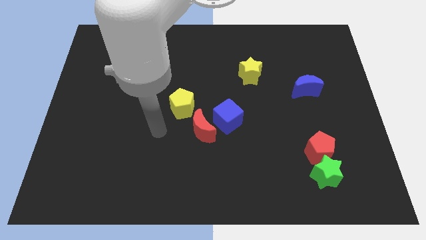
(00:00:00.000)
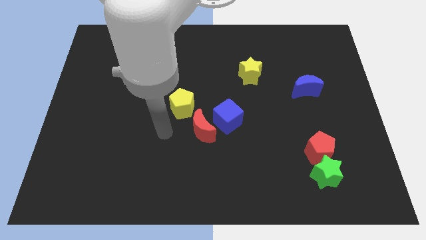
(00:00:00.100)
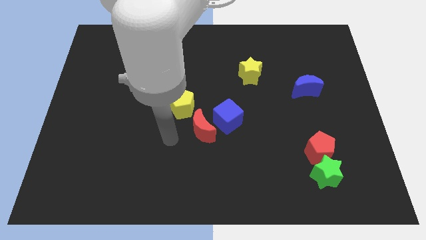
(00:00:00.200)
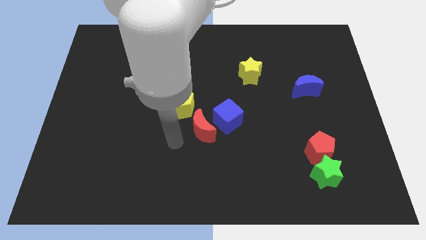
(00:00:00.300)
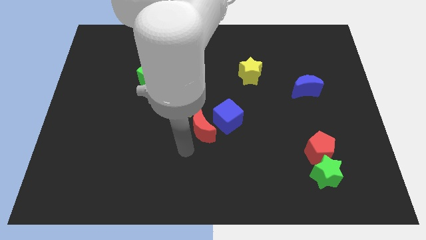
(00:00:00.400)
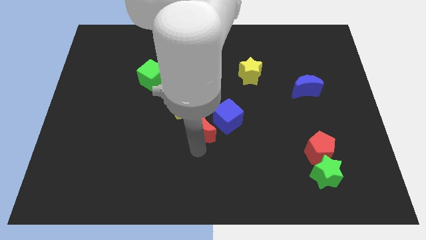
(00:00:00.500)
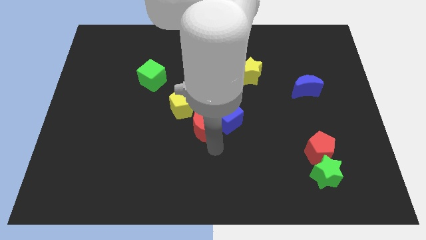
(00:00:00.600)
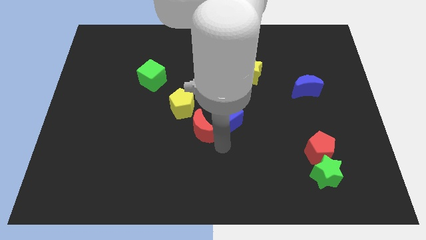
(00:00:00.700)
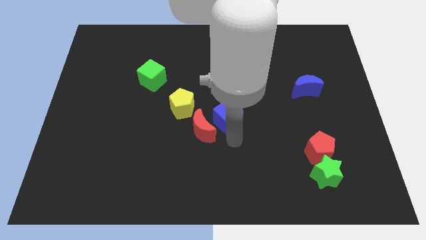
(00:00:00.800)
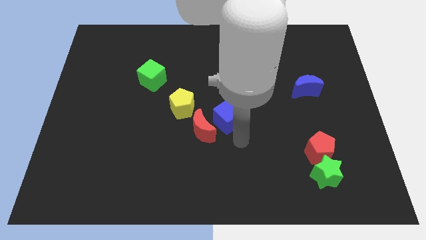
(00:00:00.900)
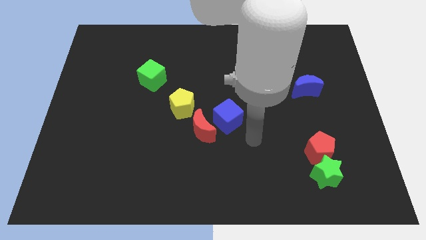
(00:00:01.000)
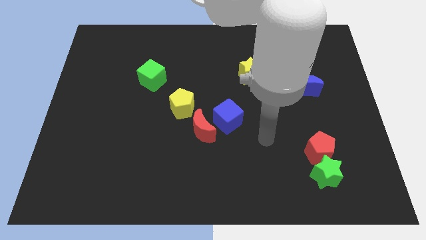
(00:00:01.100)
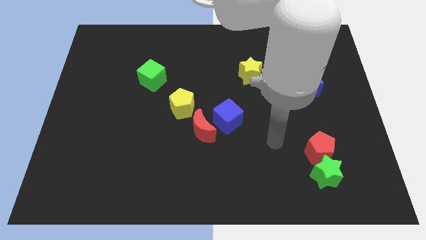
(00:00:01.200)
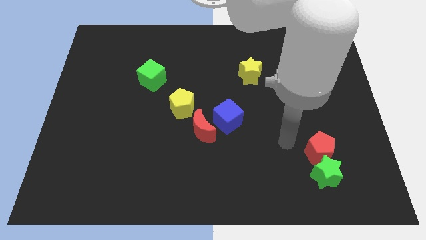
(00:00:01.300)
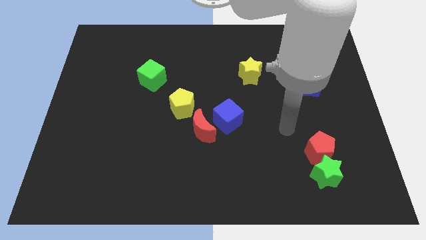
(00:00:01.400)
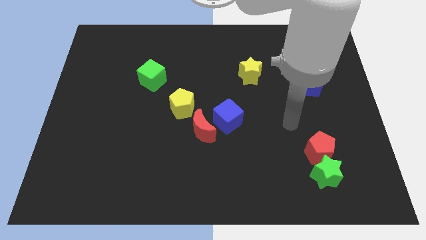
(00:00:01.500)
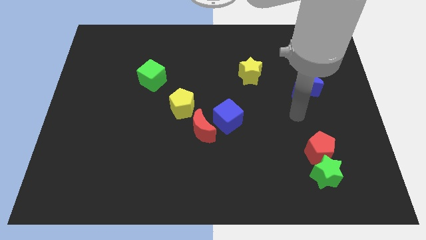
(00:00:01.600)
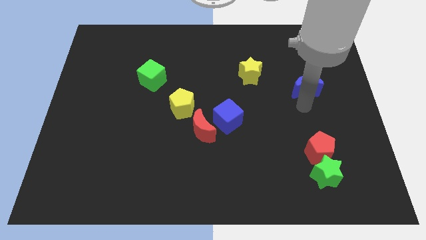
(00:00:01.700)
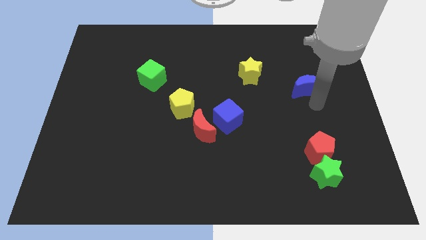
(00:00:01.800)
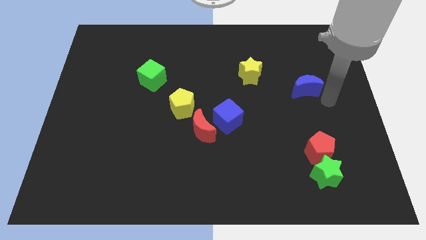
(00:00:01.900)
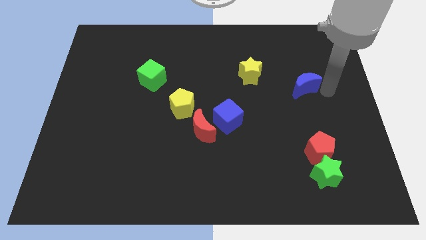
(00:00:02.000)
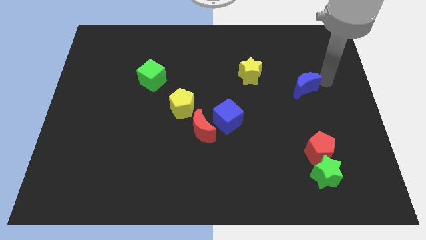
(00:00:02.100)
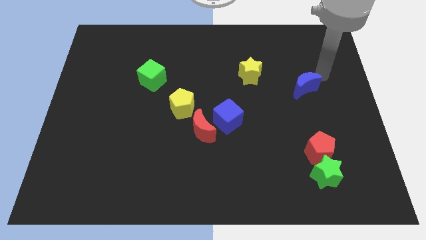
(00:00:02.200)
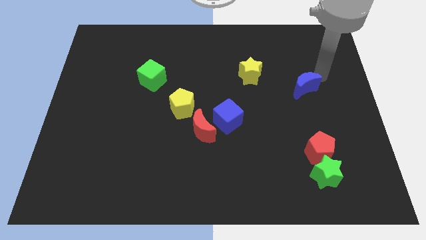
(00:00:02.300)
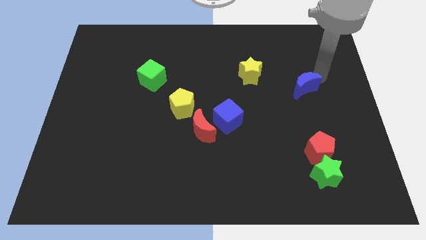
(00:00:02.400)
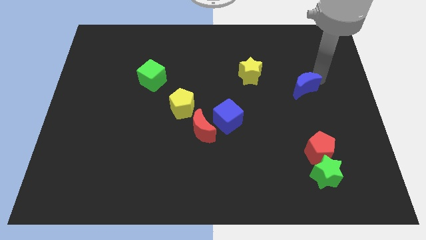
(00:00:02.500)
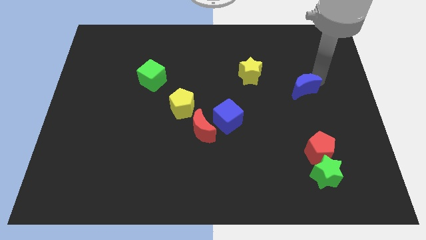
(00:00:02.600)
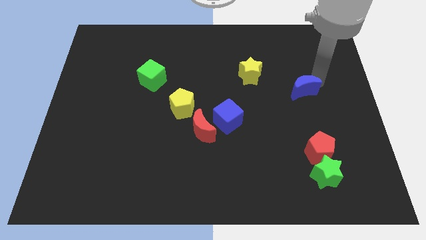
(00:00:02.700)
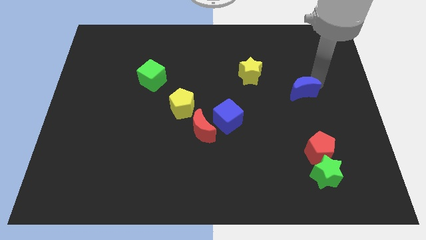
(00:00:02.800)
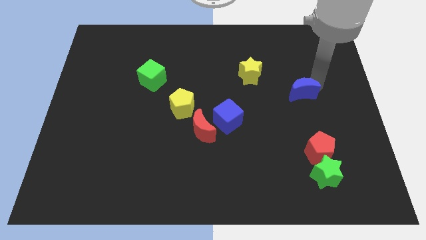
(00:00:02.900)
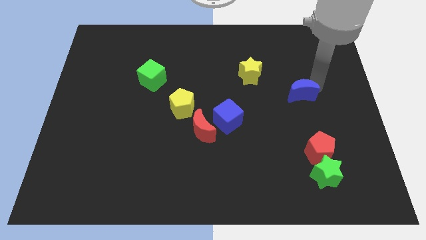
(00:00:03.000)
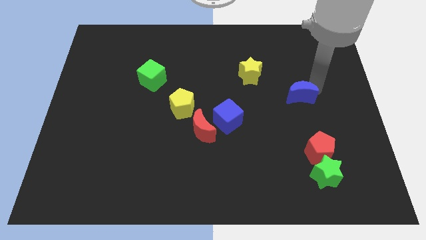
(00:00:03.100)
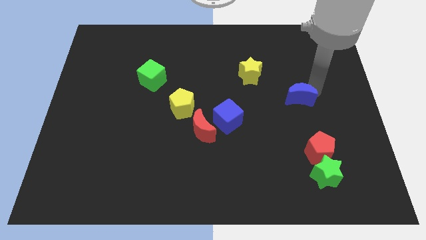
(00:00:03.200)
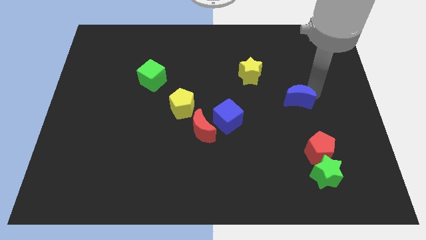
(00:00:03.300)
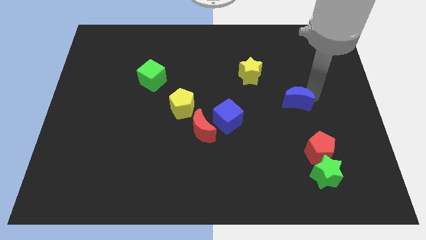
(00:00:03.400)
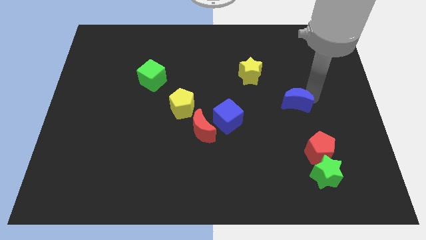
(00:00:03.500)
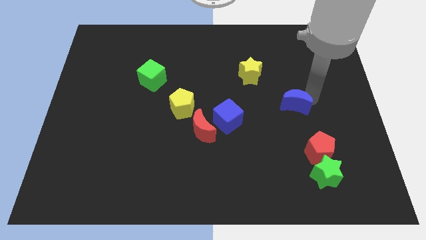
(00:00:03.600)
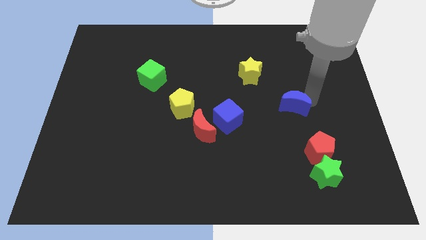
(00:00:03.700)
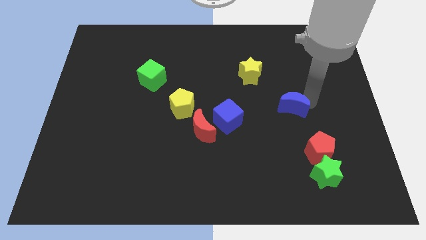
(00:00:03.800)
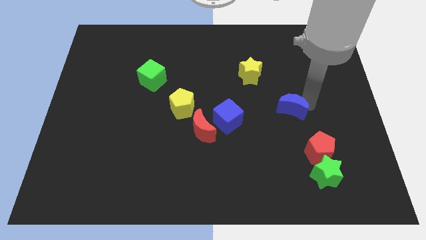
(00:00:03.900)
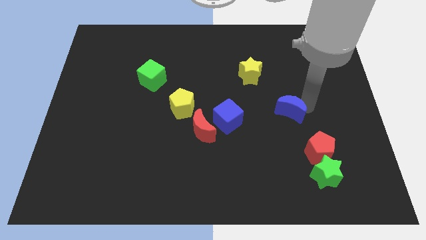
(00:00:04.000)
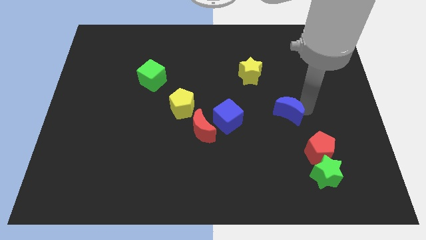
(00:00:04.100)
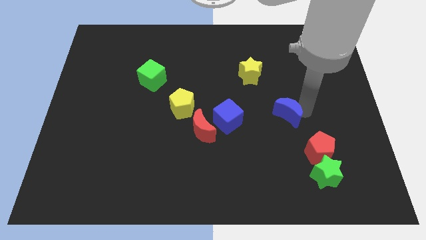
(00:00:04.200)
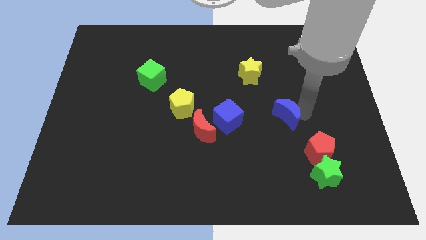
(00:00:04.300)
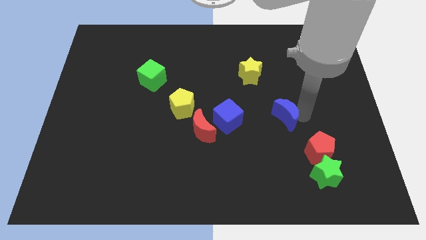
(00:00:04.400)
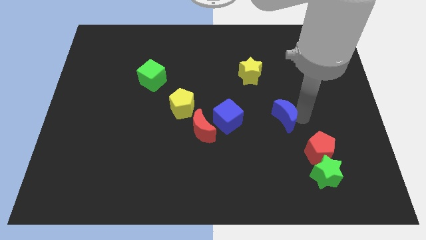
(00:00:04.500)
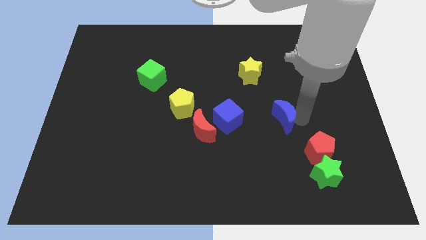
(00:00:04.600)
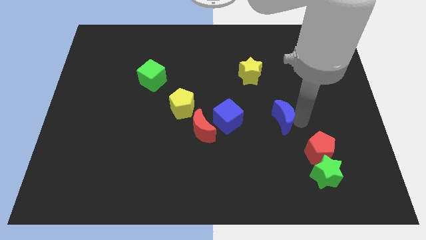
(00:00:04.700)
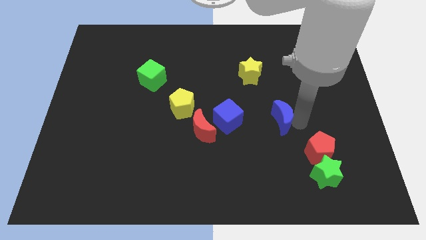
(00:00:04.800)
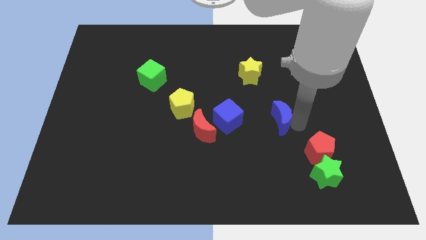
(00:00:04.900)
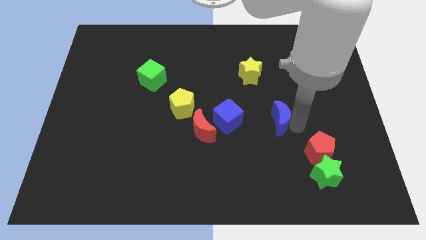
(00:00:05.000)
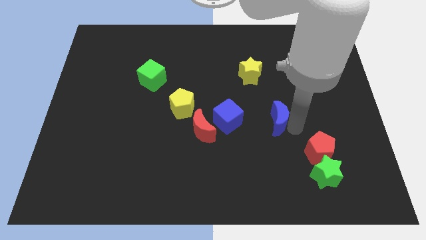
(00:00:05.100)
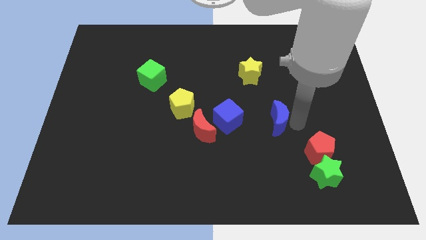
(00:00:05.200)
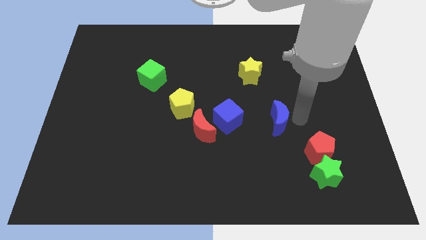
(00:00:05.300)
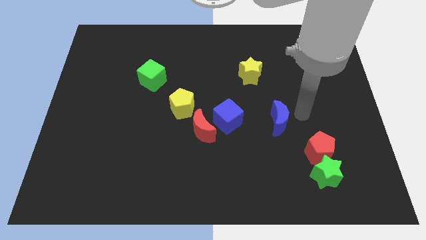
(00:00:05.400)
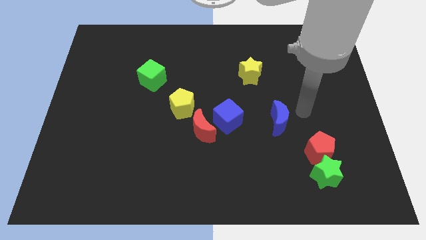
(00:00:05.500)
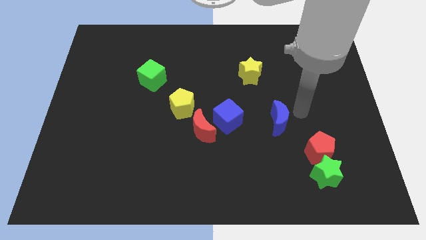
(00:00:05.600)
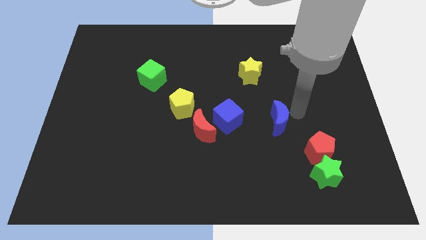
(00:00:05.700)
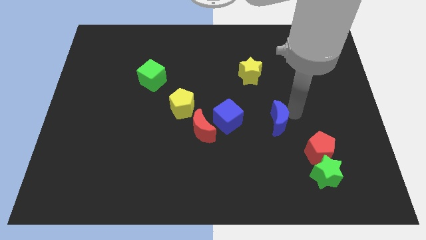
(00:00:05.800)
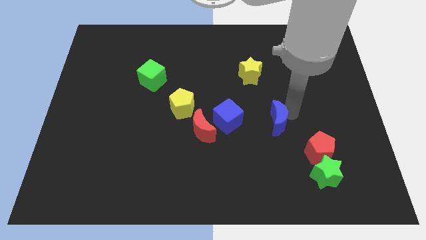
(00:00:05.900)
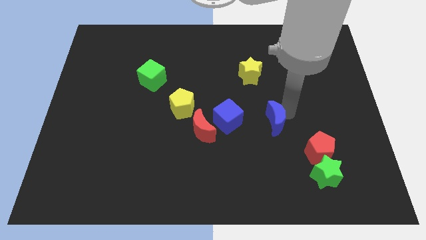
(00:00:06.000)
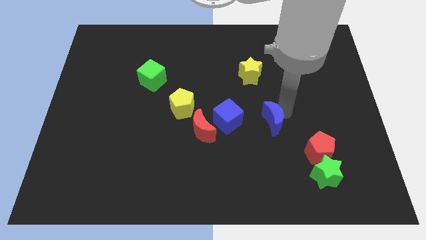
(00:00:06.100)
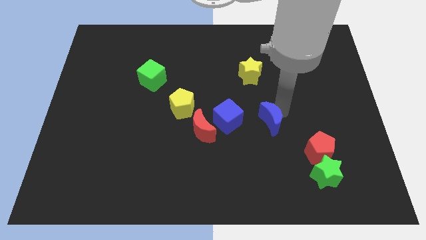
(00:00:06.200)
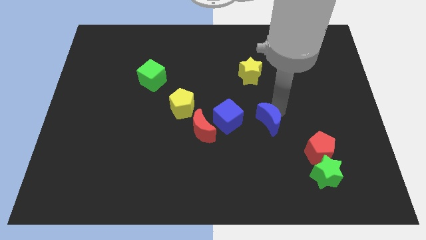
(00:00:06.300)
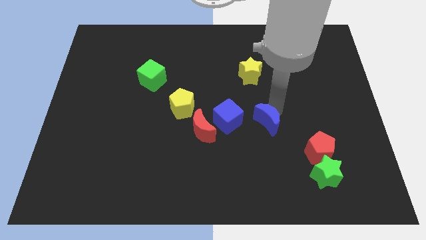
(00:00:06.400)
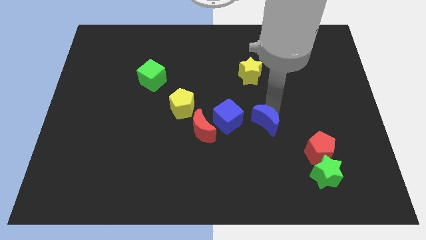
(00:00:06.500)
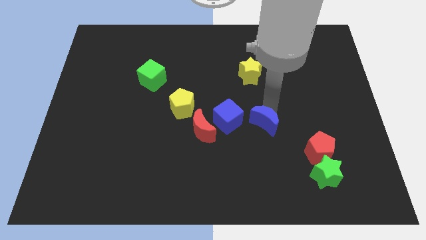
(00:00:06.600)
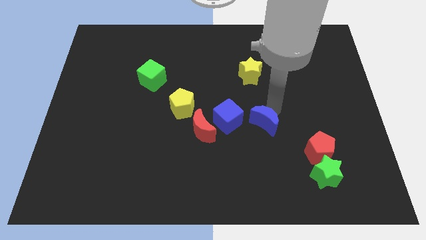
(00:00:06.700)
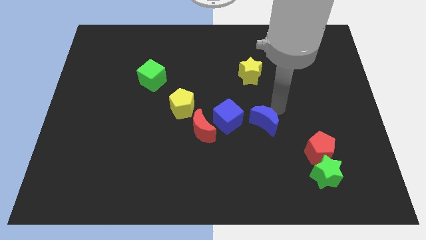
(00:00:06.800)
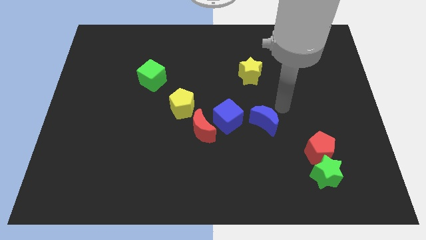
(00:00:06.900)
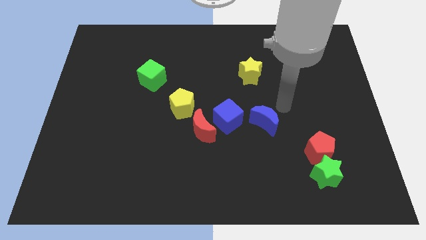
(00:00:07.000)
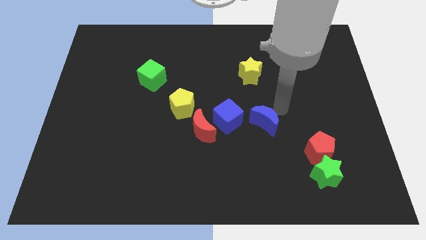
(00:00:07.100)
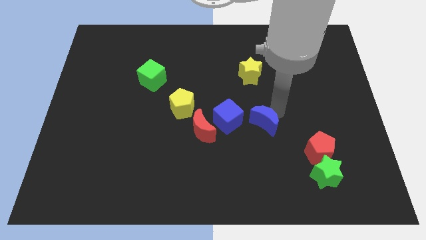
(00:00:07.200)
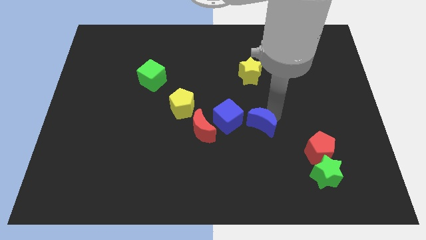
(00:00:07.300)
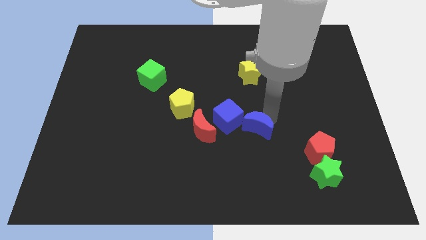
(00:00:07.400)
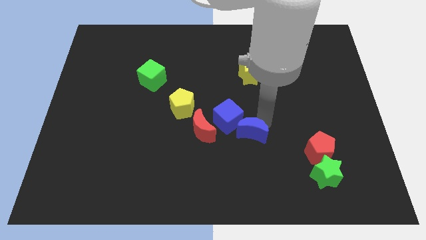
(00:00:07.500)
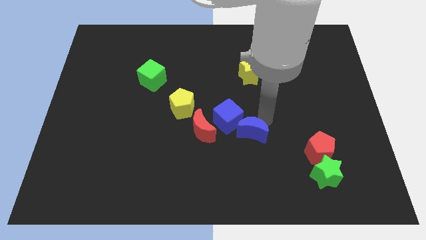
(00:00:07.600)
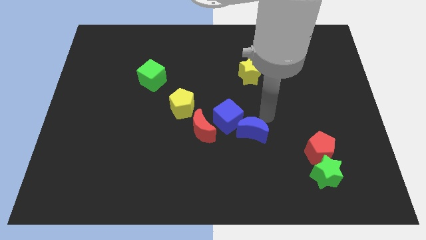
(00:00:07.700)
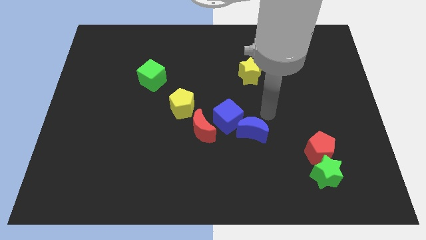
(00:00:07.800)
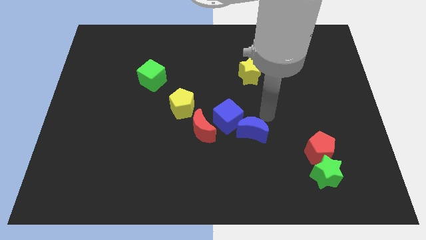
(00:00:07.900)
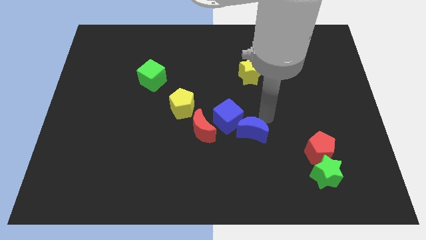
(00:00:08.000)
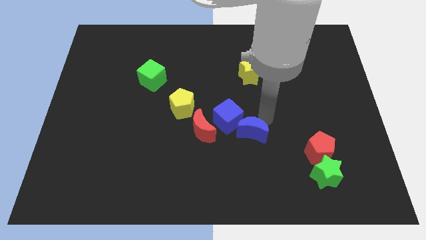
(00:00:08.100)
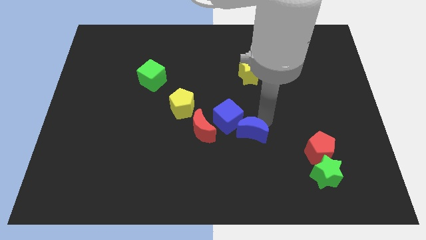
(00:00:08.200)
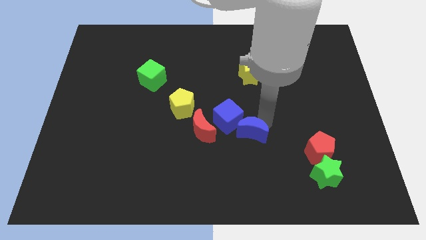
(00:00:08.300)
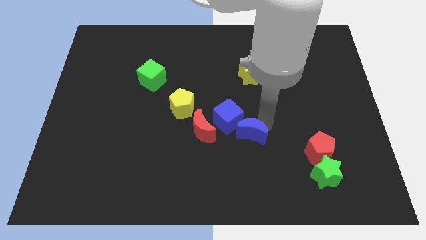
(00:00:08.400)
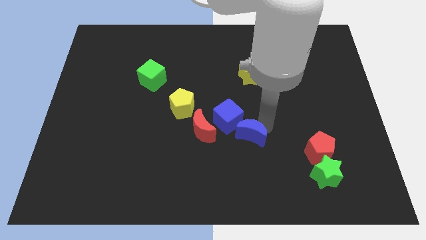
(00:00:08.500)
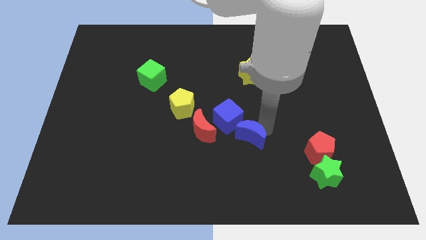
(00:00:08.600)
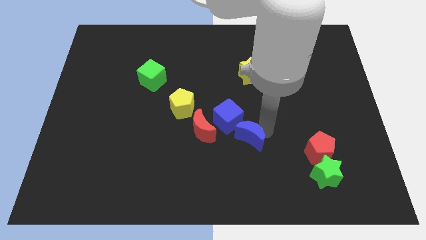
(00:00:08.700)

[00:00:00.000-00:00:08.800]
put the blue moon to the bottom of the blue cube
